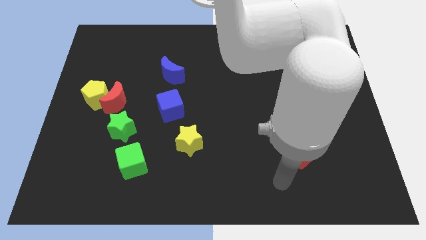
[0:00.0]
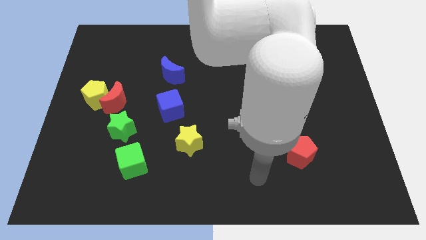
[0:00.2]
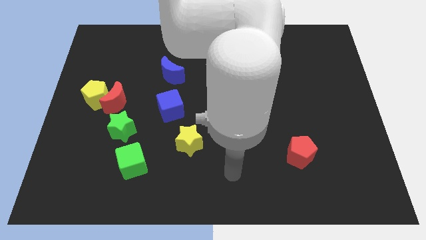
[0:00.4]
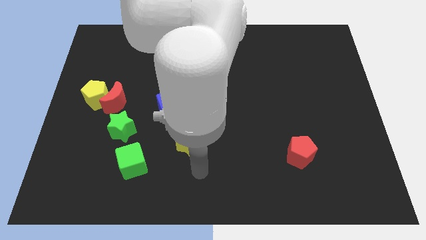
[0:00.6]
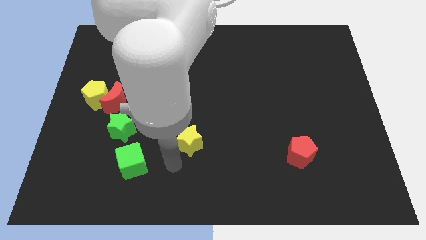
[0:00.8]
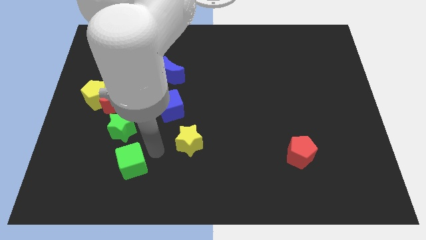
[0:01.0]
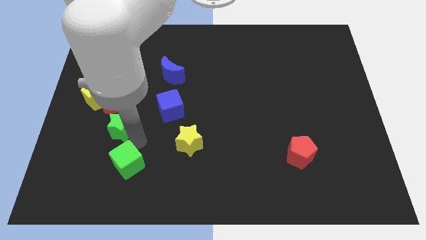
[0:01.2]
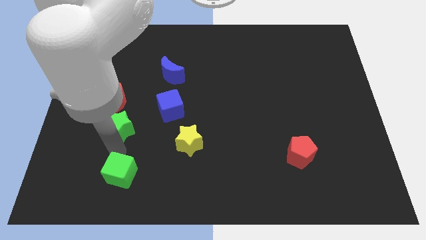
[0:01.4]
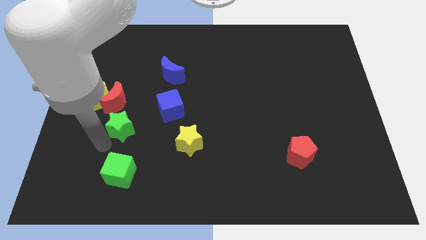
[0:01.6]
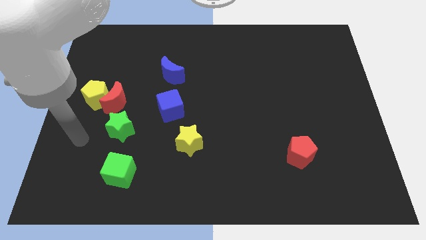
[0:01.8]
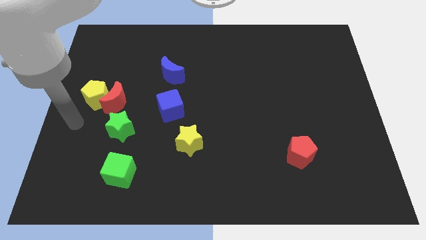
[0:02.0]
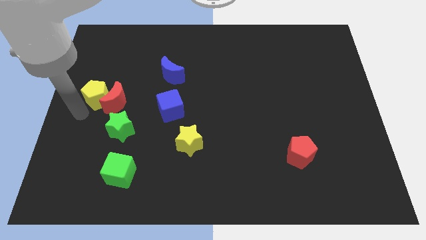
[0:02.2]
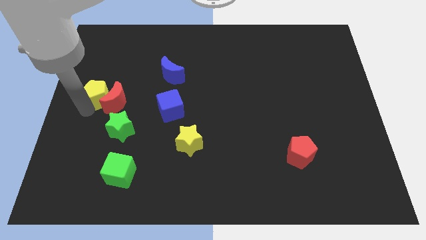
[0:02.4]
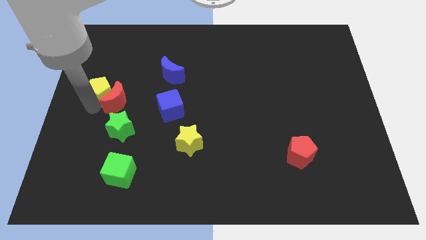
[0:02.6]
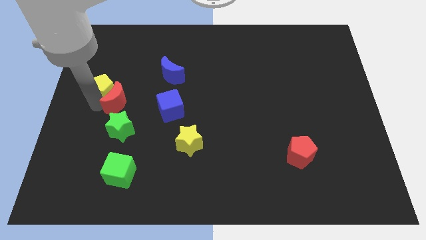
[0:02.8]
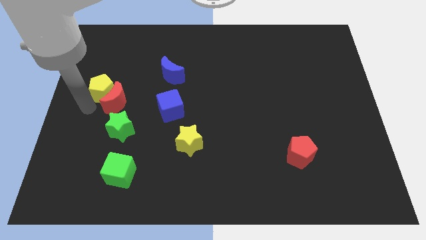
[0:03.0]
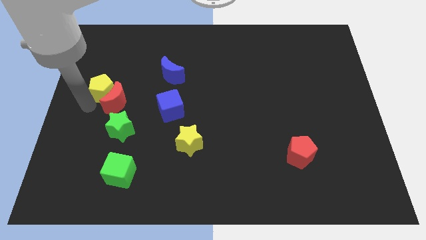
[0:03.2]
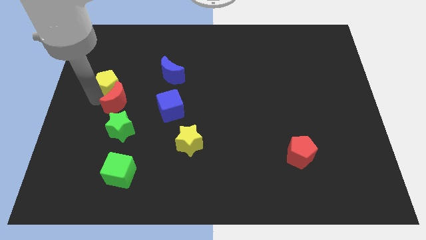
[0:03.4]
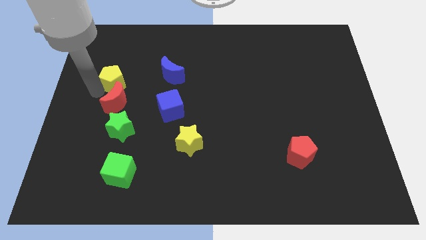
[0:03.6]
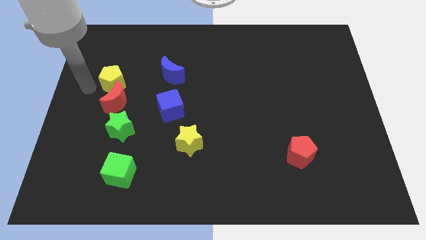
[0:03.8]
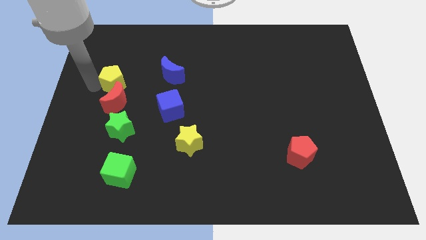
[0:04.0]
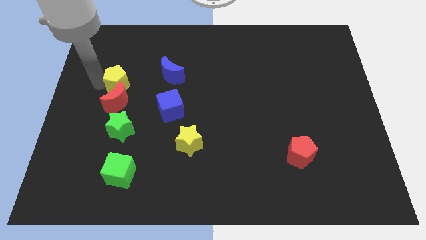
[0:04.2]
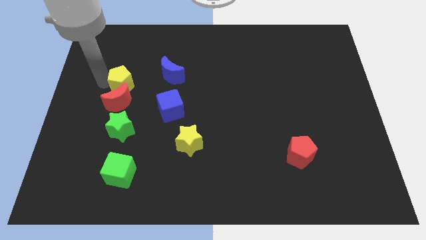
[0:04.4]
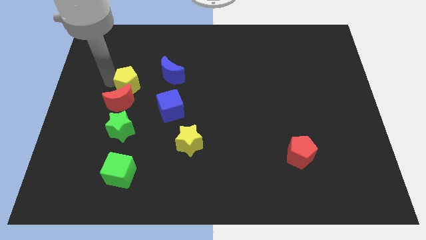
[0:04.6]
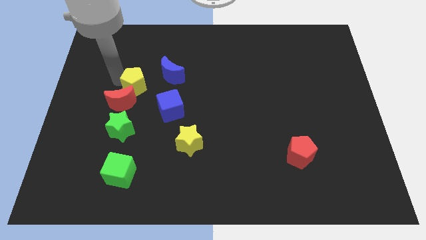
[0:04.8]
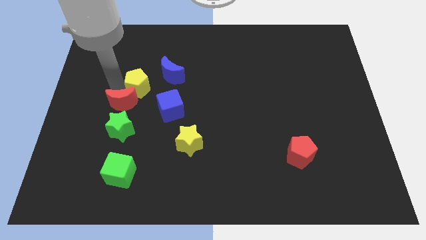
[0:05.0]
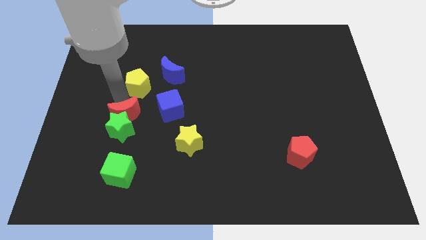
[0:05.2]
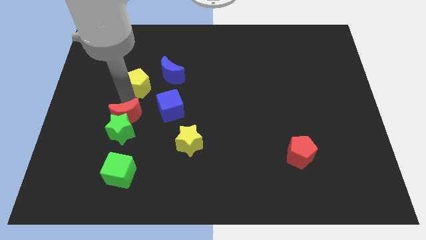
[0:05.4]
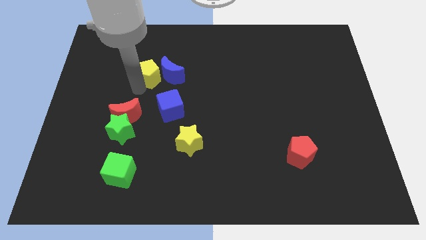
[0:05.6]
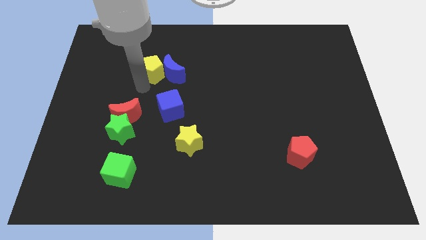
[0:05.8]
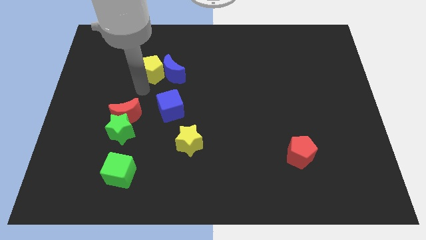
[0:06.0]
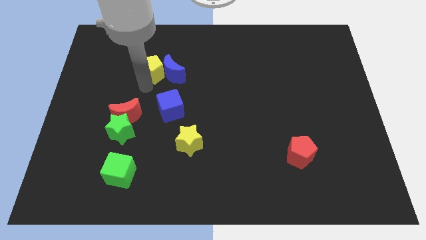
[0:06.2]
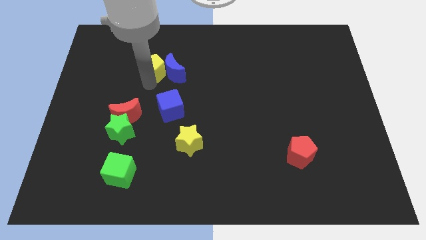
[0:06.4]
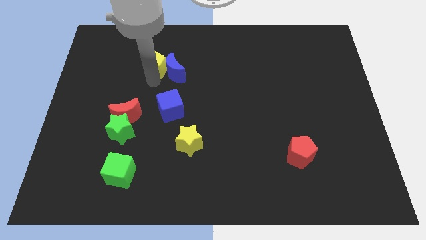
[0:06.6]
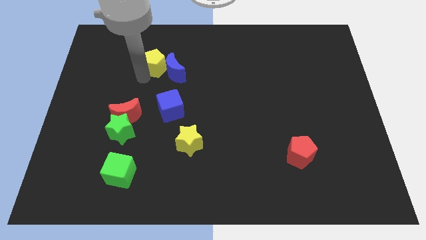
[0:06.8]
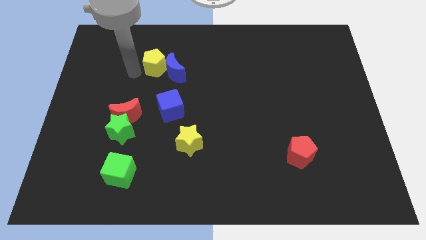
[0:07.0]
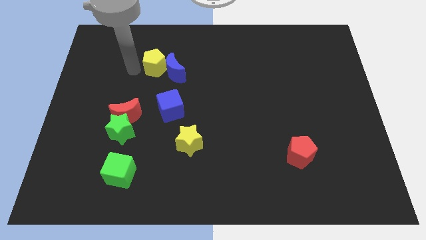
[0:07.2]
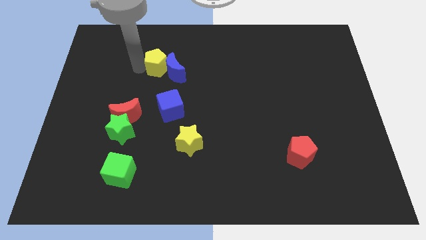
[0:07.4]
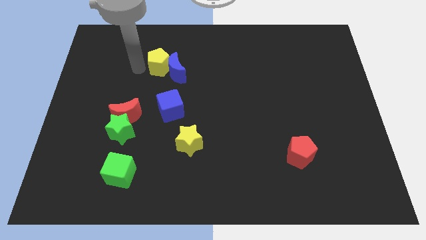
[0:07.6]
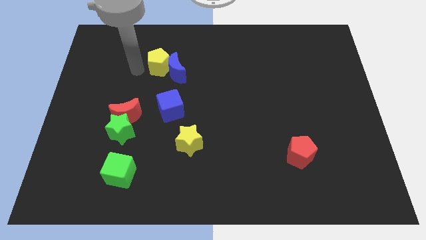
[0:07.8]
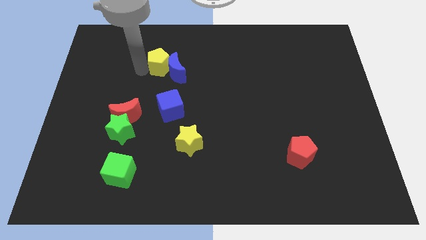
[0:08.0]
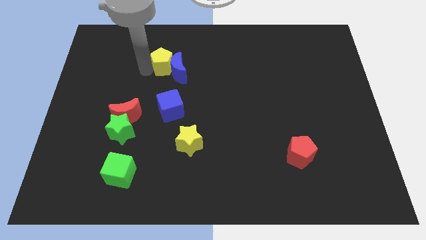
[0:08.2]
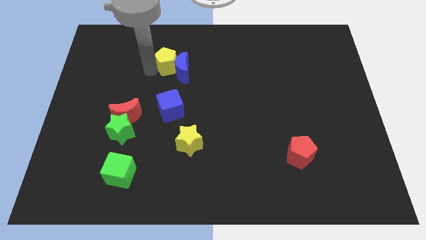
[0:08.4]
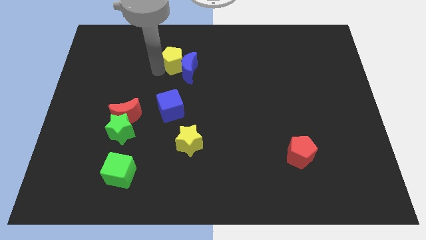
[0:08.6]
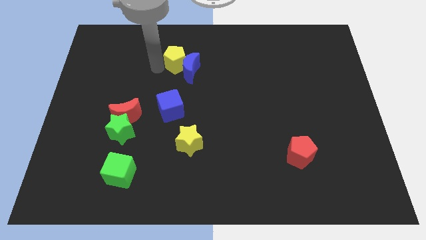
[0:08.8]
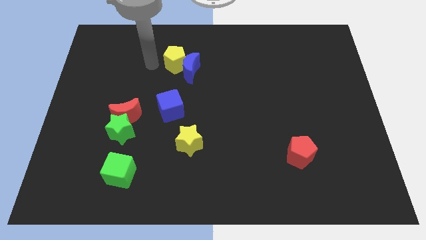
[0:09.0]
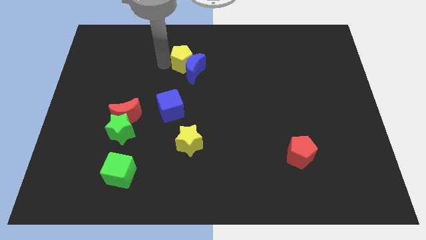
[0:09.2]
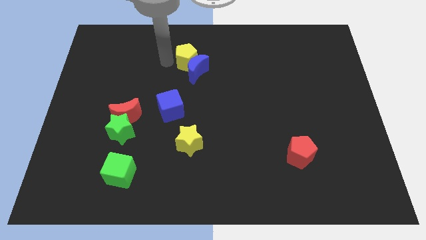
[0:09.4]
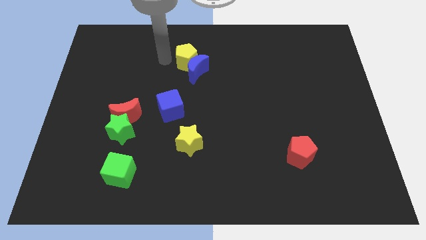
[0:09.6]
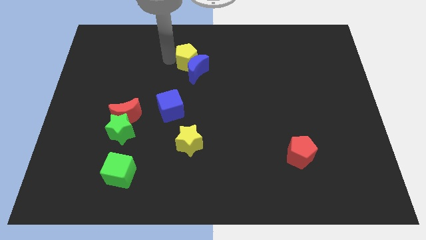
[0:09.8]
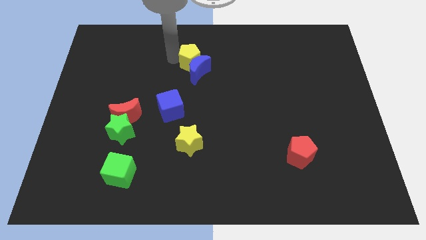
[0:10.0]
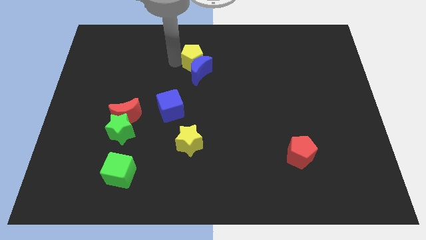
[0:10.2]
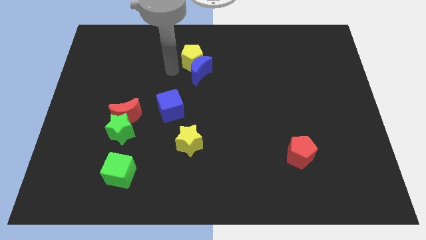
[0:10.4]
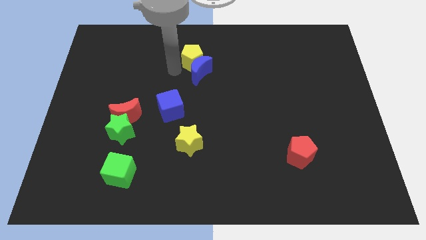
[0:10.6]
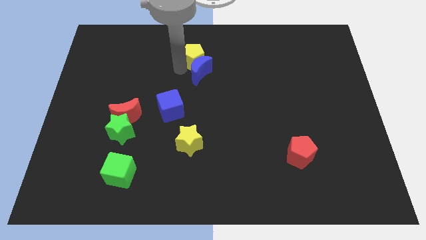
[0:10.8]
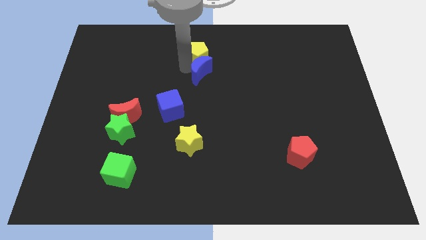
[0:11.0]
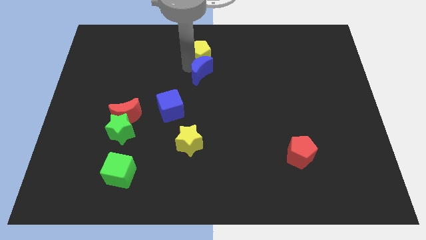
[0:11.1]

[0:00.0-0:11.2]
put the yellow pentagon to the top

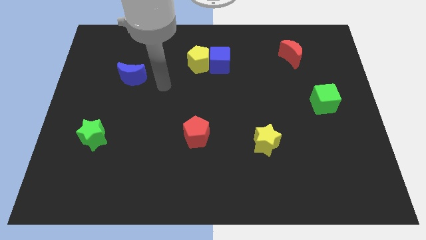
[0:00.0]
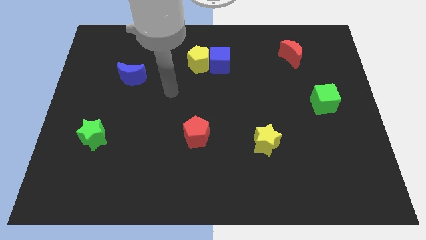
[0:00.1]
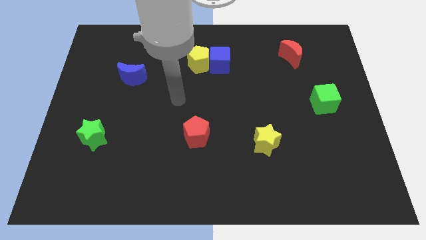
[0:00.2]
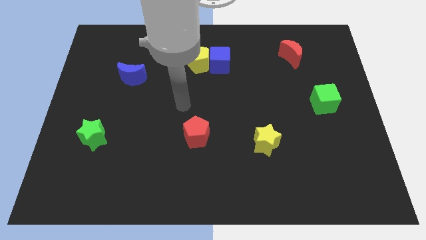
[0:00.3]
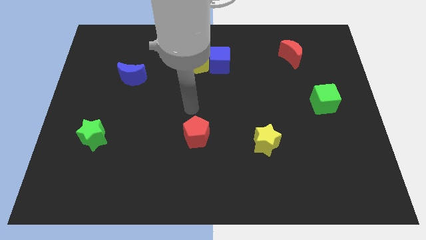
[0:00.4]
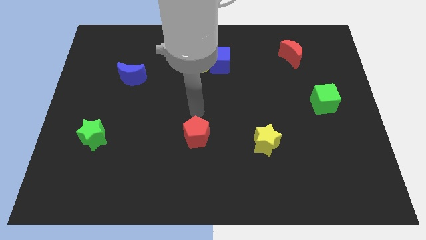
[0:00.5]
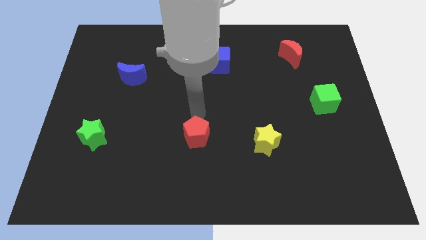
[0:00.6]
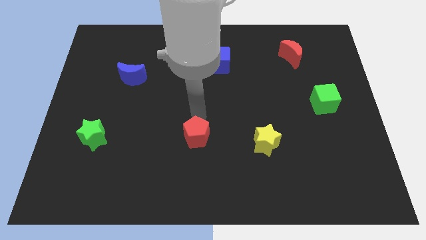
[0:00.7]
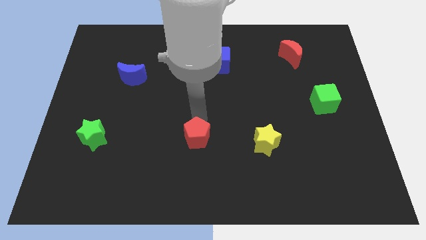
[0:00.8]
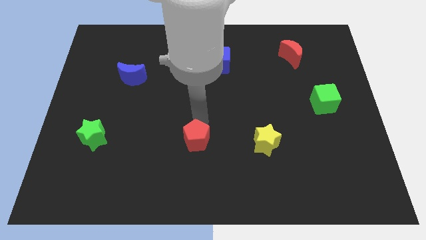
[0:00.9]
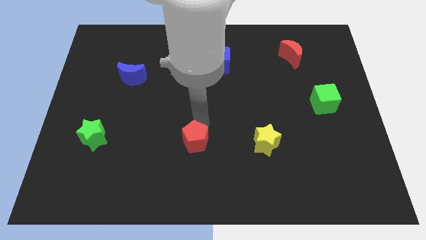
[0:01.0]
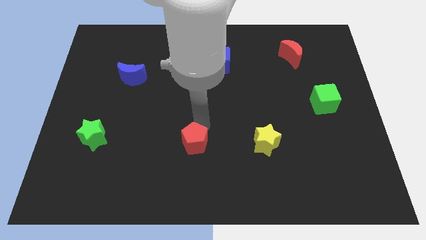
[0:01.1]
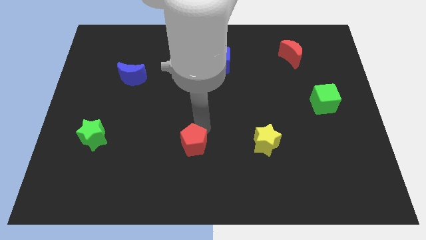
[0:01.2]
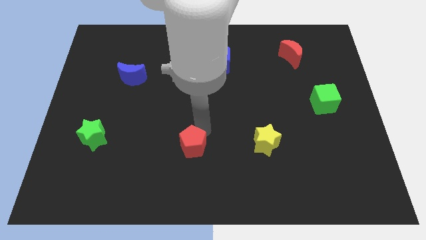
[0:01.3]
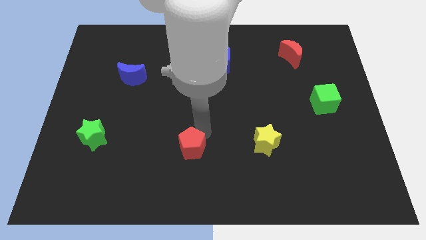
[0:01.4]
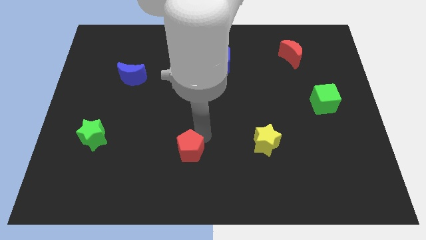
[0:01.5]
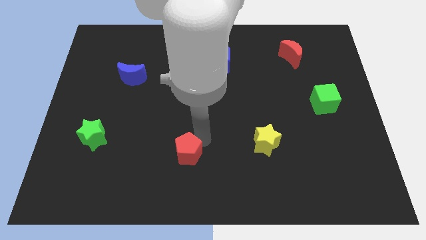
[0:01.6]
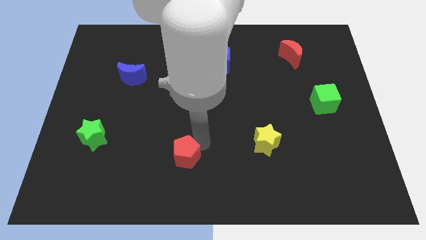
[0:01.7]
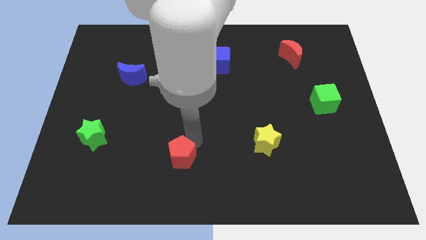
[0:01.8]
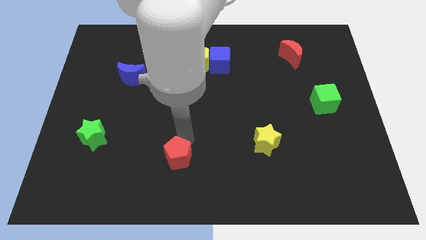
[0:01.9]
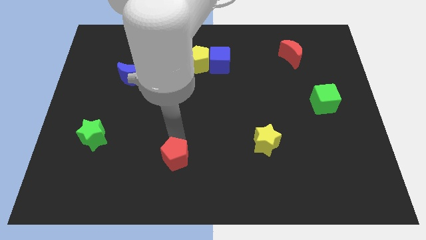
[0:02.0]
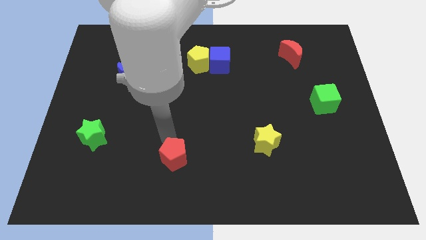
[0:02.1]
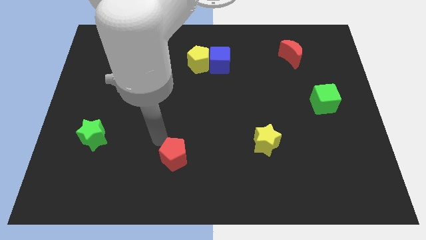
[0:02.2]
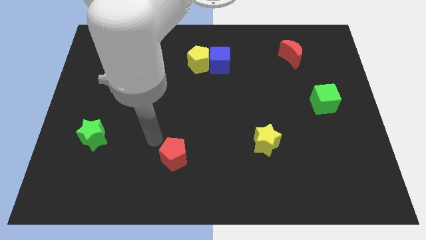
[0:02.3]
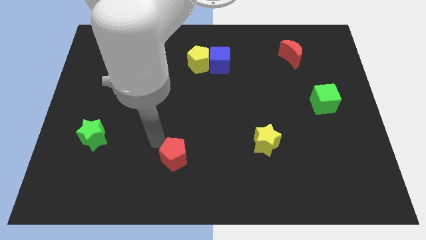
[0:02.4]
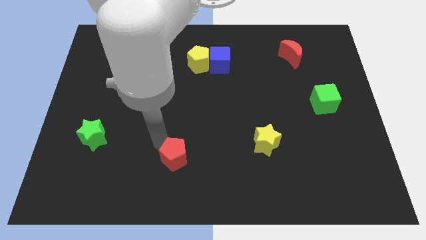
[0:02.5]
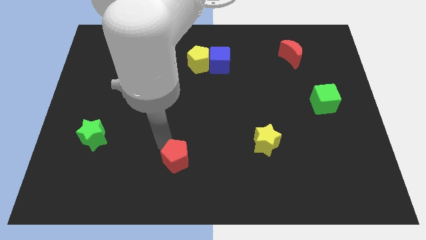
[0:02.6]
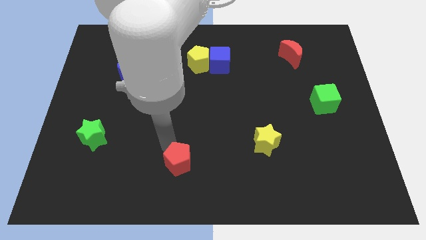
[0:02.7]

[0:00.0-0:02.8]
put the red pentagon to the bottom
